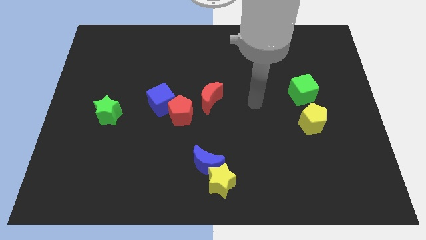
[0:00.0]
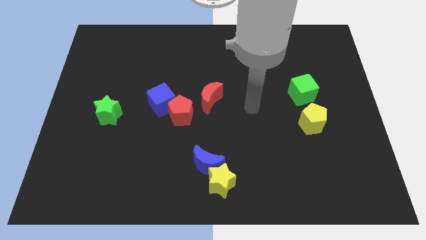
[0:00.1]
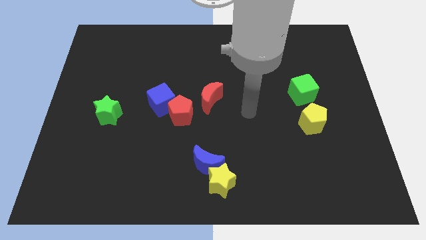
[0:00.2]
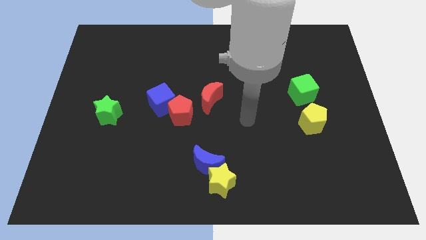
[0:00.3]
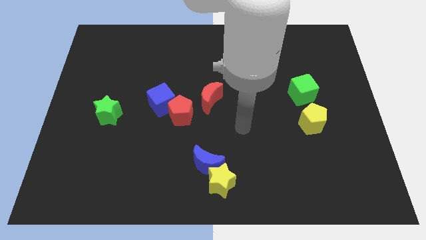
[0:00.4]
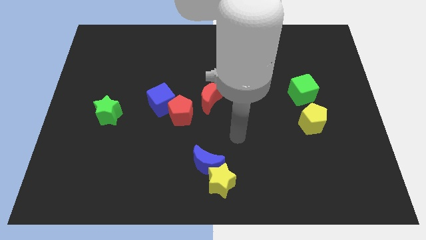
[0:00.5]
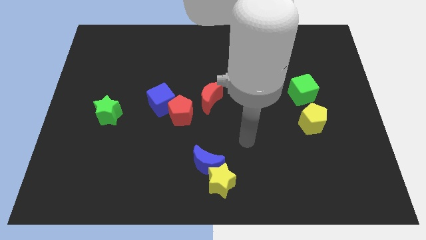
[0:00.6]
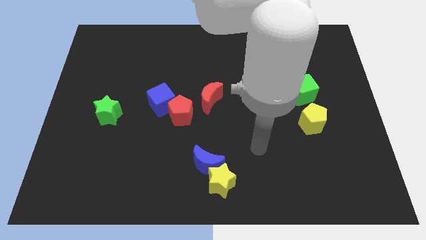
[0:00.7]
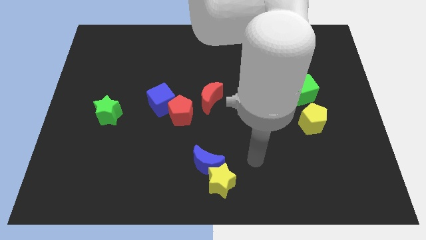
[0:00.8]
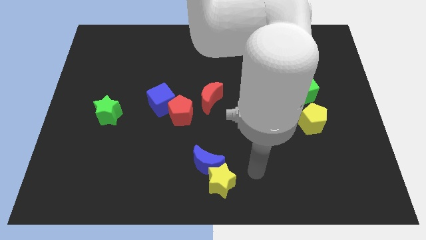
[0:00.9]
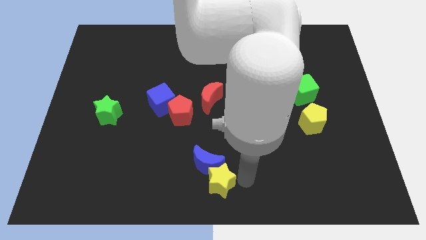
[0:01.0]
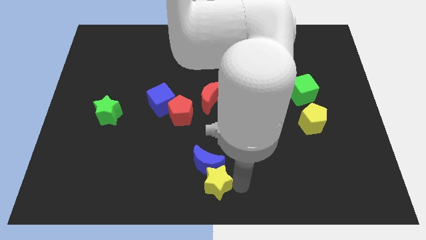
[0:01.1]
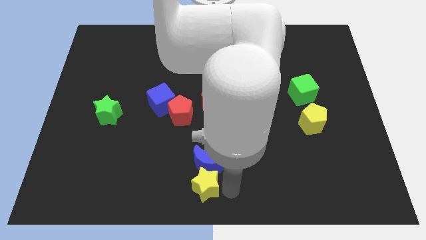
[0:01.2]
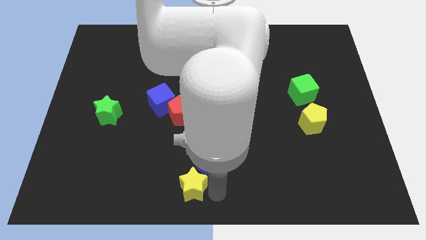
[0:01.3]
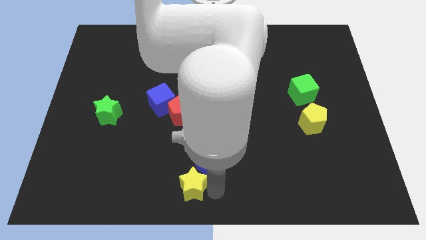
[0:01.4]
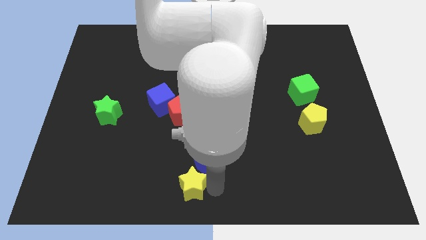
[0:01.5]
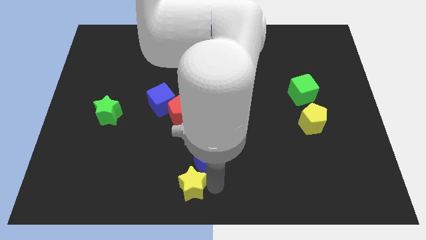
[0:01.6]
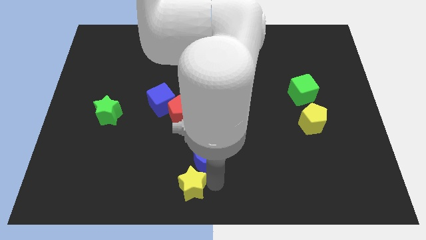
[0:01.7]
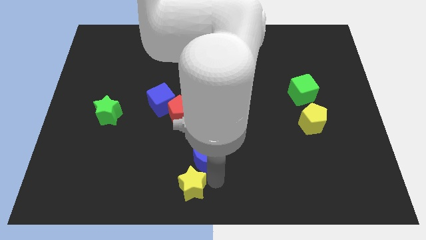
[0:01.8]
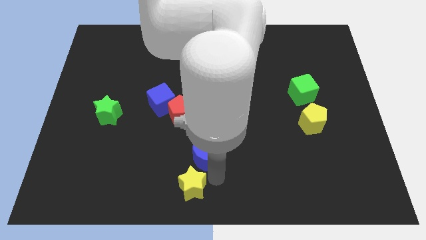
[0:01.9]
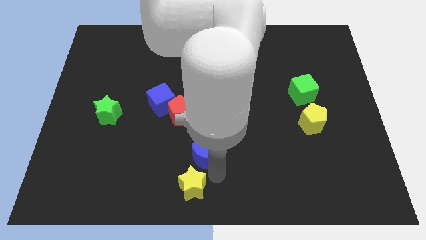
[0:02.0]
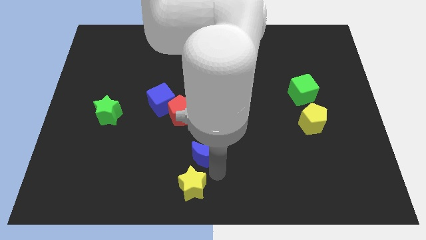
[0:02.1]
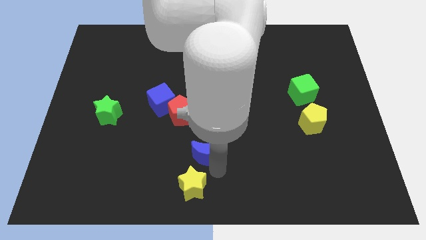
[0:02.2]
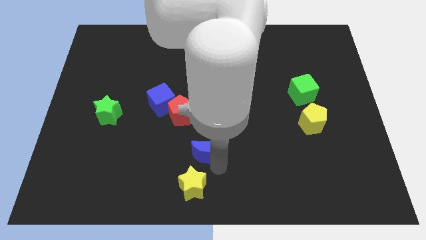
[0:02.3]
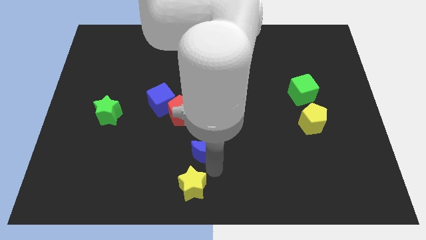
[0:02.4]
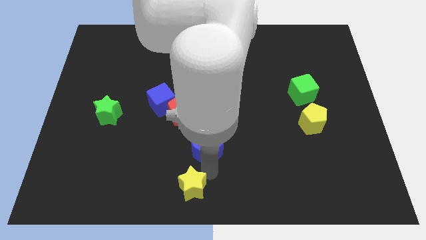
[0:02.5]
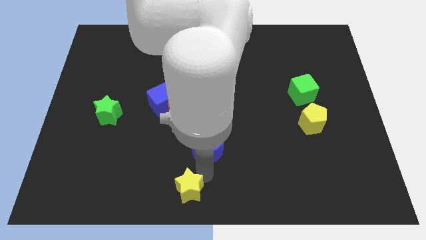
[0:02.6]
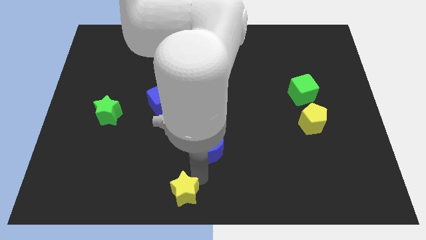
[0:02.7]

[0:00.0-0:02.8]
pull the blue moon apart from the yellow star

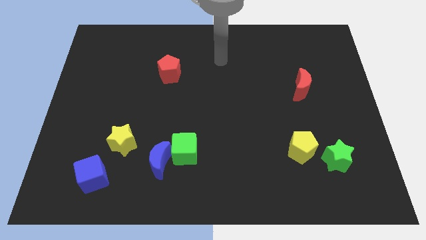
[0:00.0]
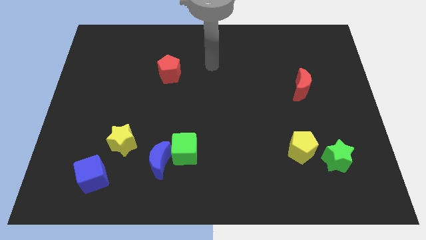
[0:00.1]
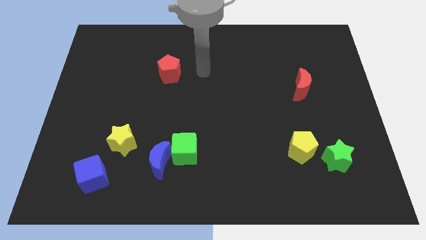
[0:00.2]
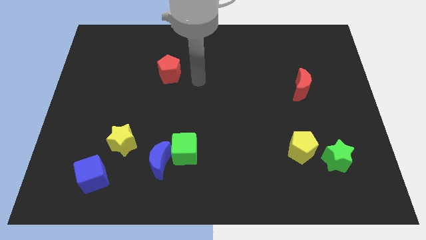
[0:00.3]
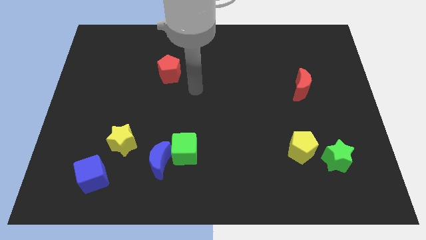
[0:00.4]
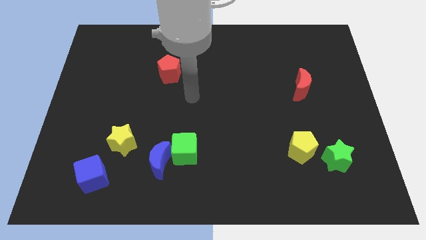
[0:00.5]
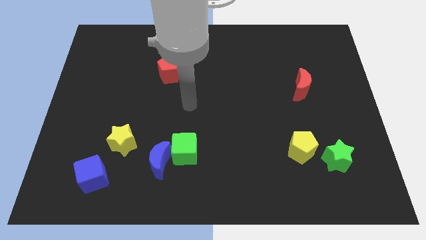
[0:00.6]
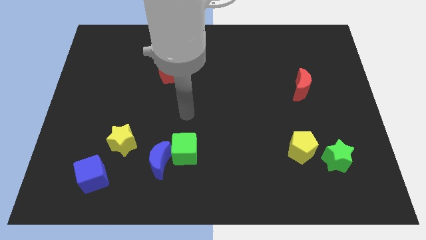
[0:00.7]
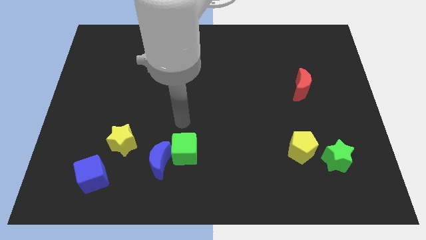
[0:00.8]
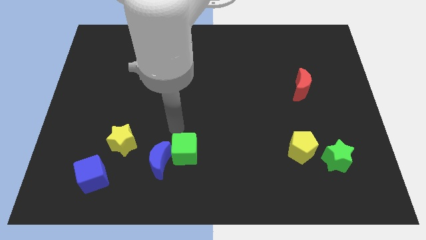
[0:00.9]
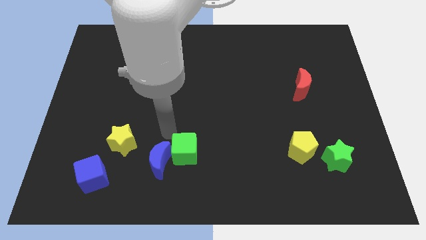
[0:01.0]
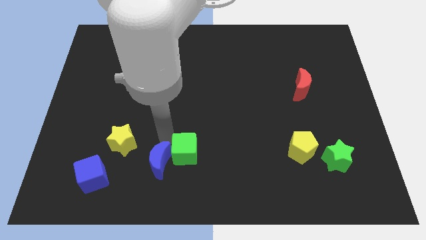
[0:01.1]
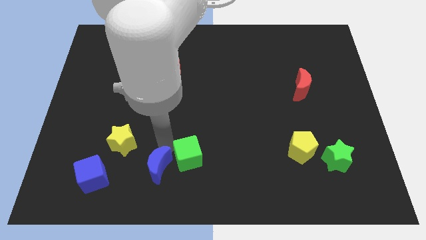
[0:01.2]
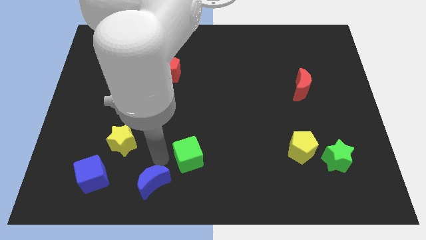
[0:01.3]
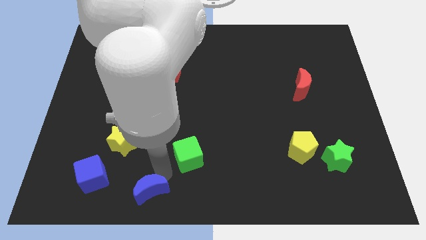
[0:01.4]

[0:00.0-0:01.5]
pull the green cube apart from the blue moon

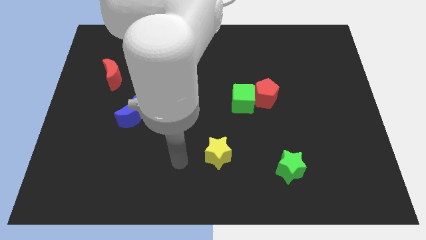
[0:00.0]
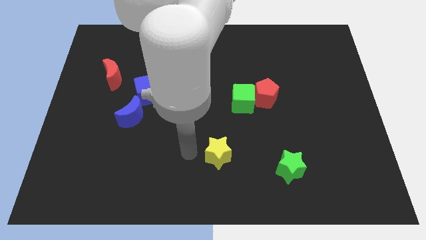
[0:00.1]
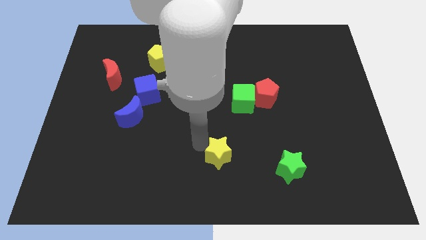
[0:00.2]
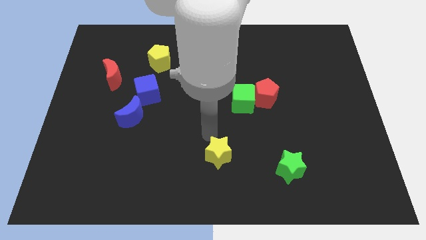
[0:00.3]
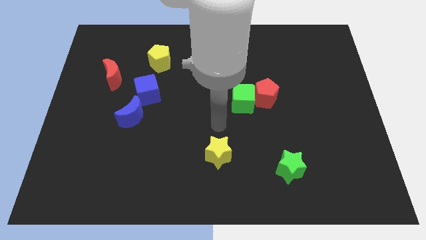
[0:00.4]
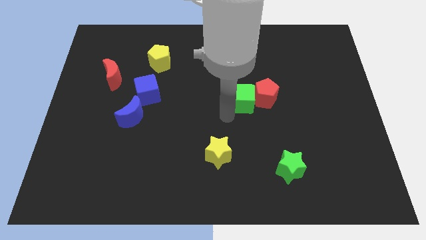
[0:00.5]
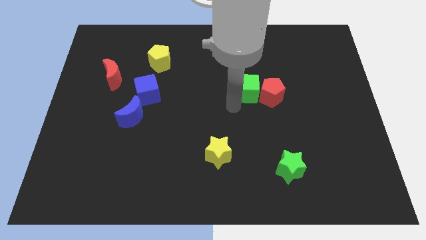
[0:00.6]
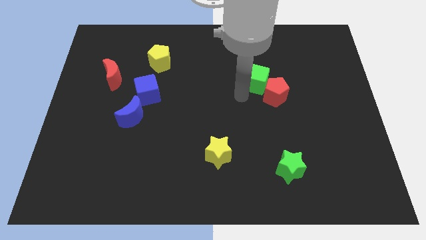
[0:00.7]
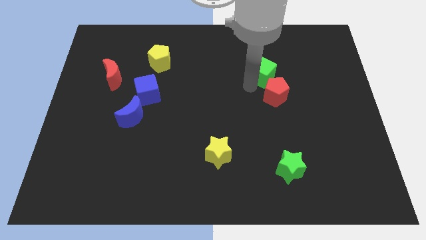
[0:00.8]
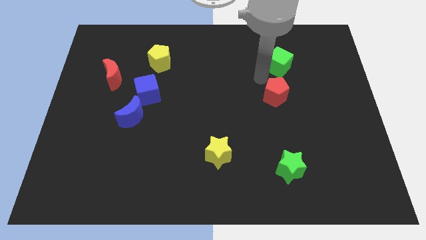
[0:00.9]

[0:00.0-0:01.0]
move the red pentagon away from the green cube

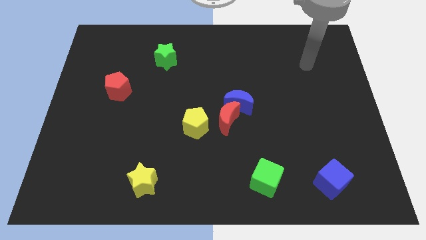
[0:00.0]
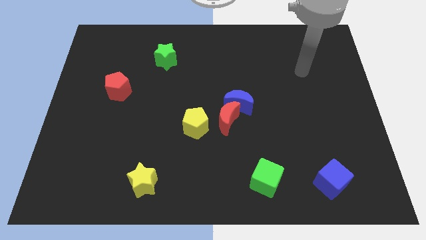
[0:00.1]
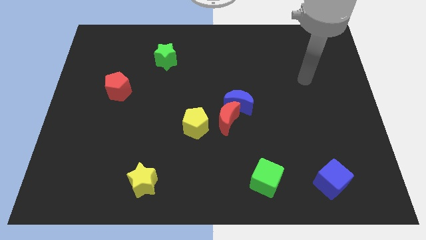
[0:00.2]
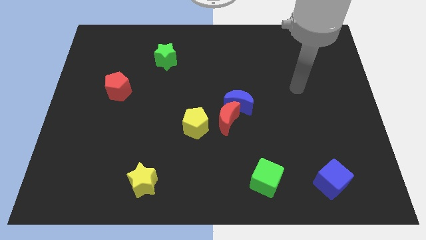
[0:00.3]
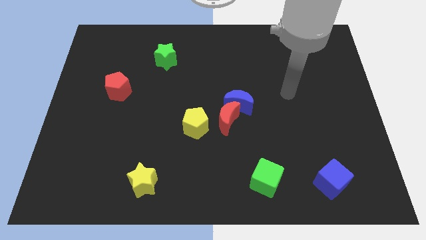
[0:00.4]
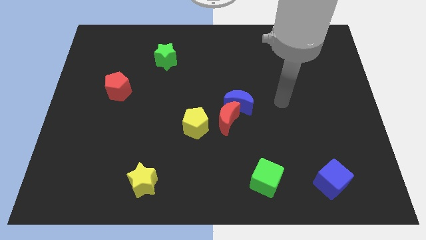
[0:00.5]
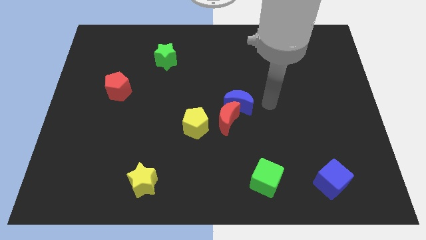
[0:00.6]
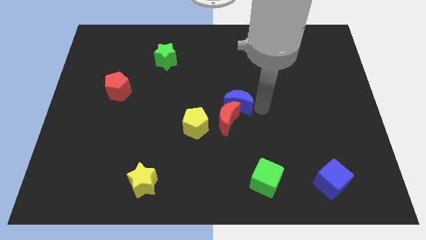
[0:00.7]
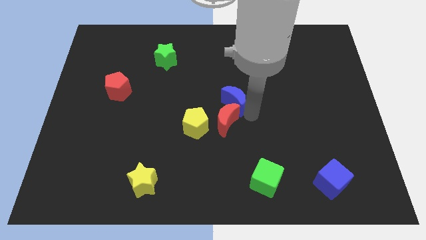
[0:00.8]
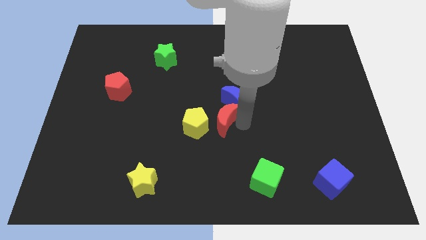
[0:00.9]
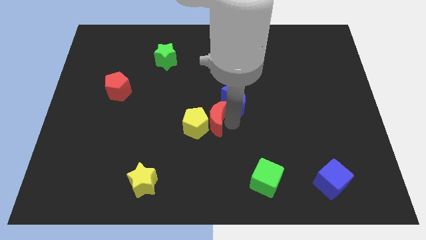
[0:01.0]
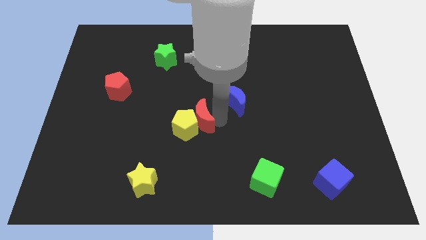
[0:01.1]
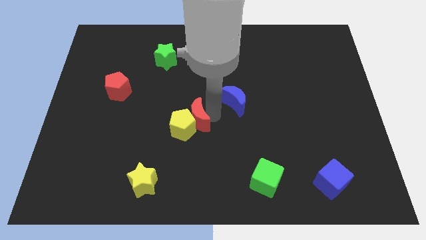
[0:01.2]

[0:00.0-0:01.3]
separate the blue moon from the red moon

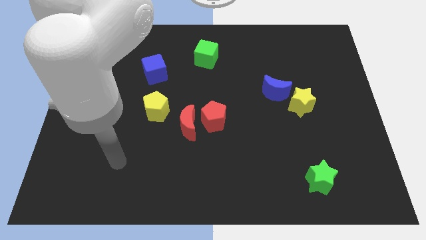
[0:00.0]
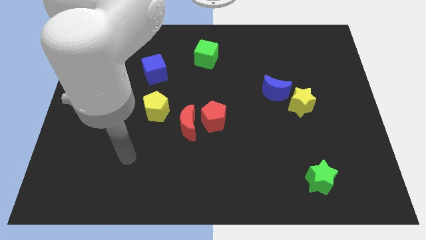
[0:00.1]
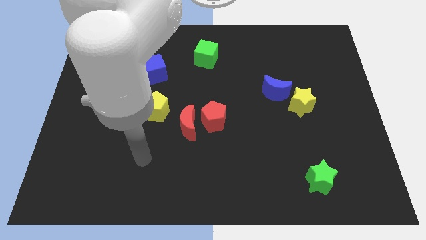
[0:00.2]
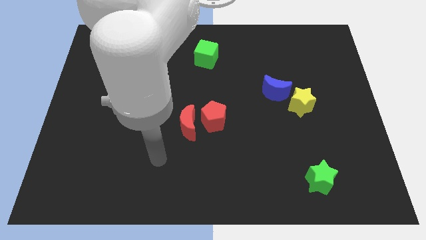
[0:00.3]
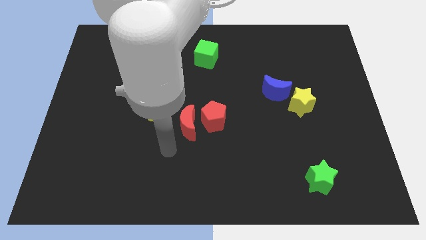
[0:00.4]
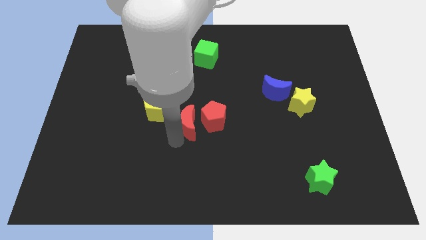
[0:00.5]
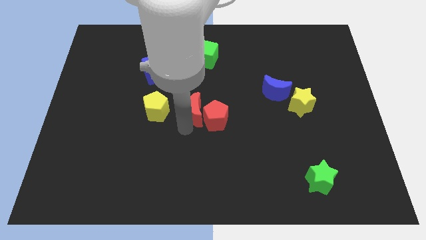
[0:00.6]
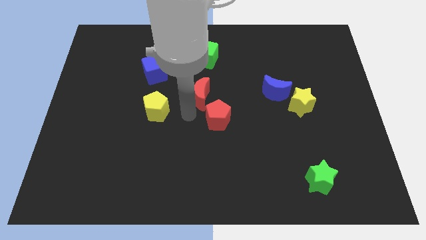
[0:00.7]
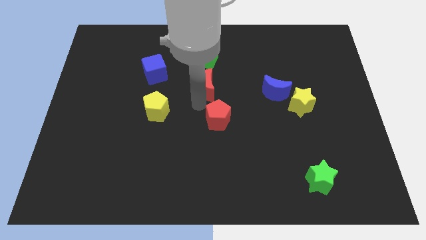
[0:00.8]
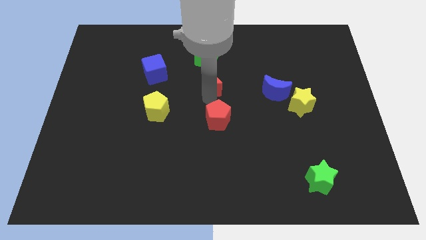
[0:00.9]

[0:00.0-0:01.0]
pull the red pentagon apart from the red moon

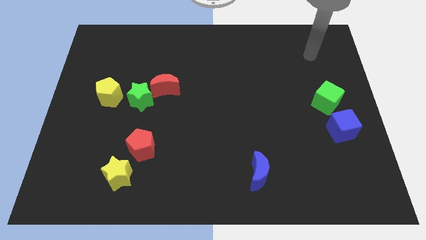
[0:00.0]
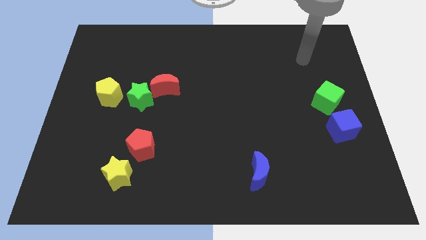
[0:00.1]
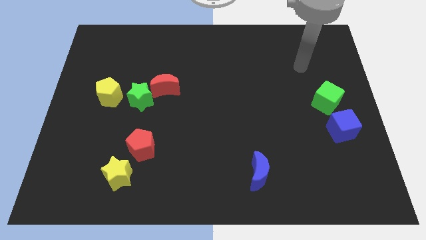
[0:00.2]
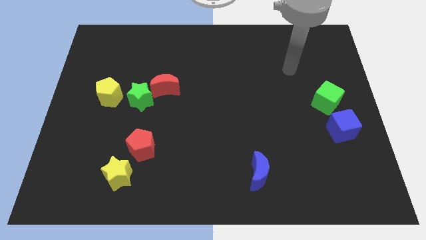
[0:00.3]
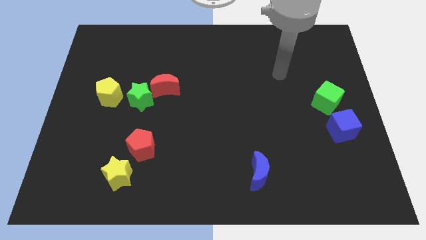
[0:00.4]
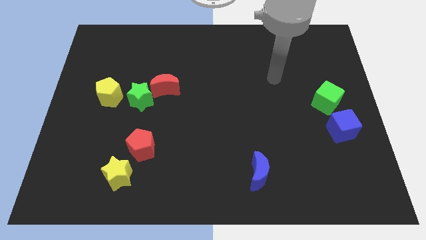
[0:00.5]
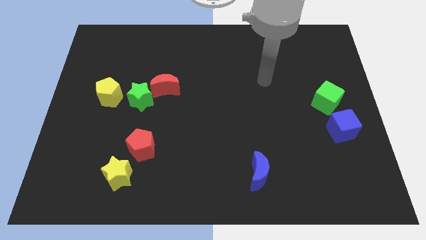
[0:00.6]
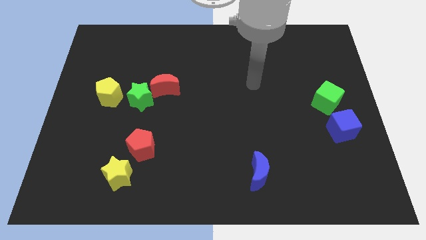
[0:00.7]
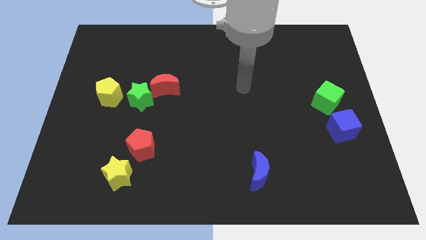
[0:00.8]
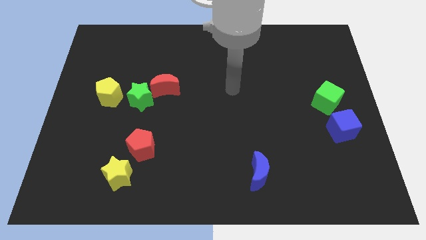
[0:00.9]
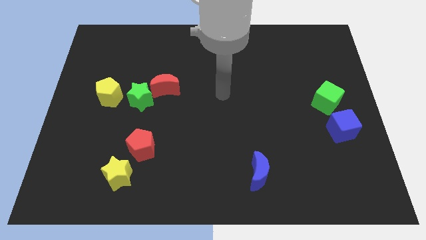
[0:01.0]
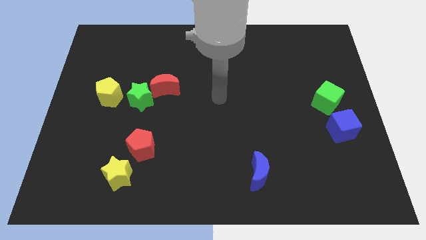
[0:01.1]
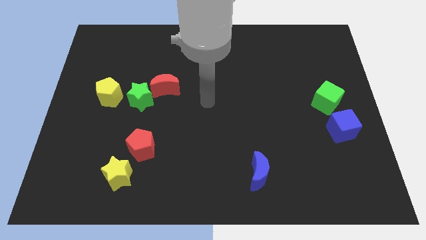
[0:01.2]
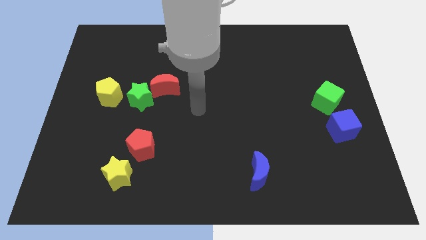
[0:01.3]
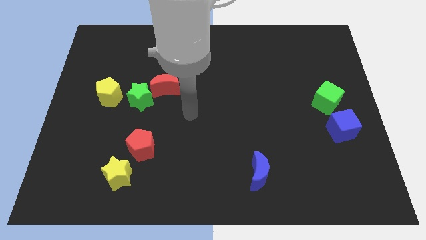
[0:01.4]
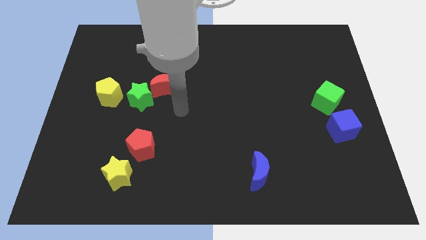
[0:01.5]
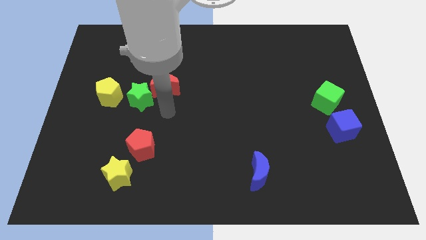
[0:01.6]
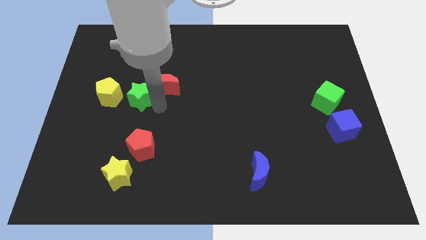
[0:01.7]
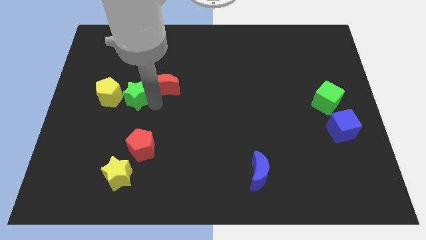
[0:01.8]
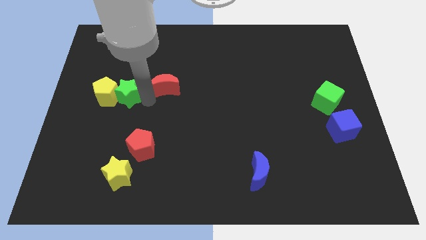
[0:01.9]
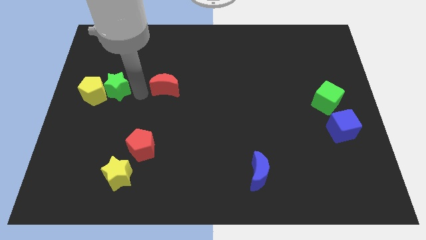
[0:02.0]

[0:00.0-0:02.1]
pull the red moon apart from the green star
